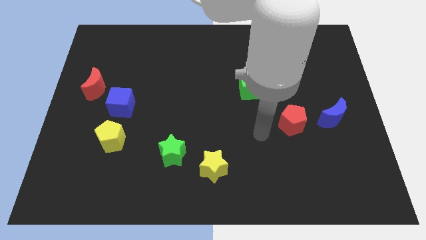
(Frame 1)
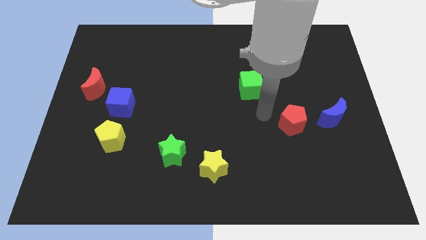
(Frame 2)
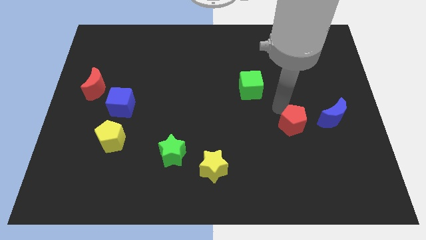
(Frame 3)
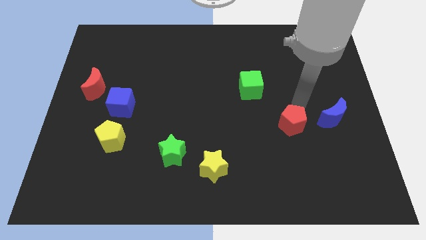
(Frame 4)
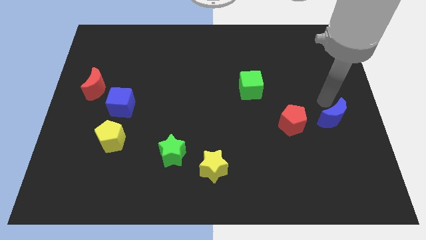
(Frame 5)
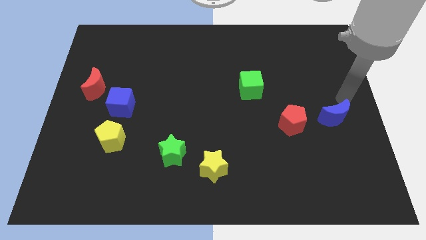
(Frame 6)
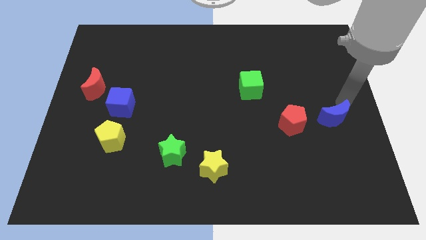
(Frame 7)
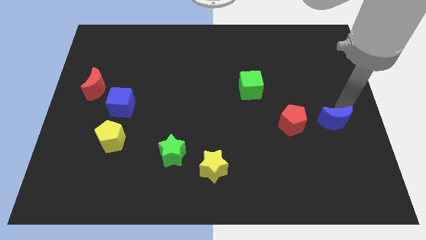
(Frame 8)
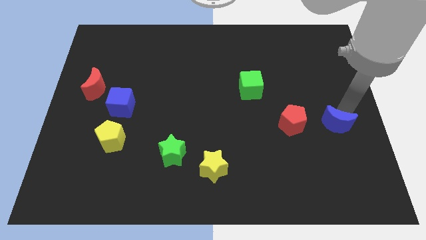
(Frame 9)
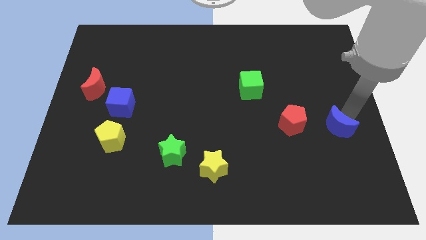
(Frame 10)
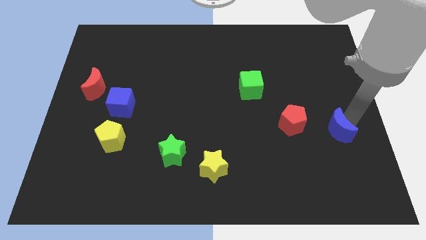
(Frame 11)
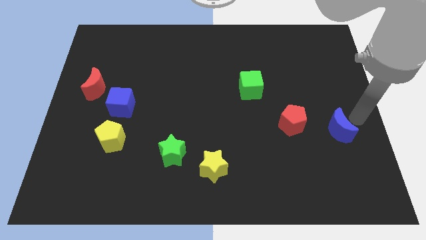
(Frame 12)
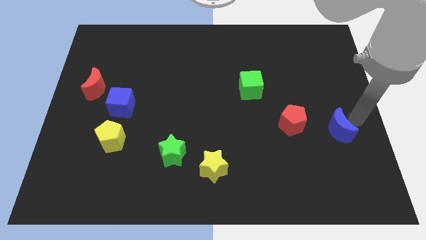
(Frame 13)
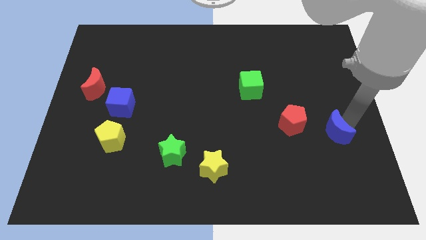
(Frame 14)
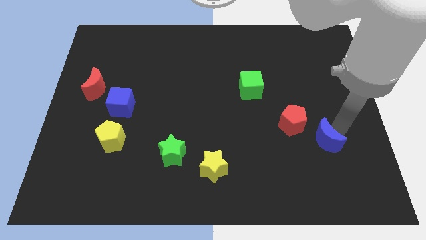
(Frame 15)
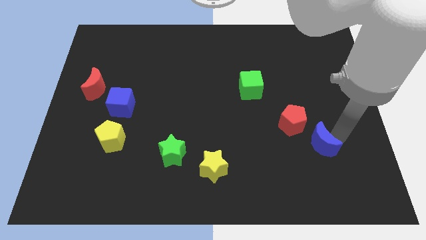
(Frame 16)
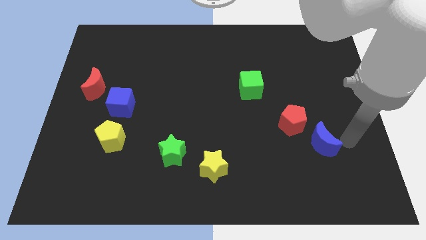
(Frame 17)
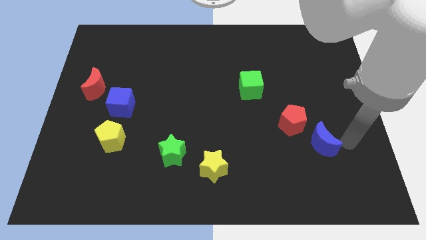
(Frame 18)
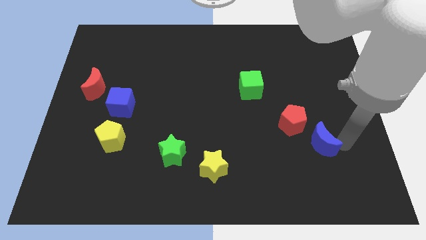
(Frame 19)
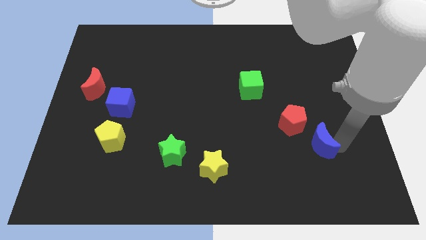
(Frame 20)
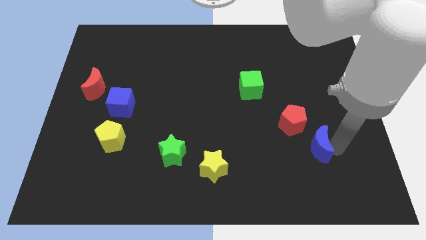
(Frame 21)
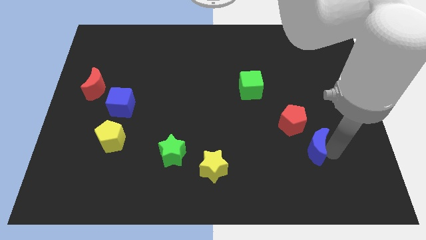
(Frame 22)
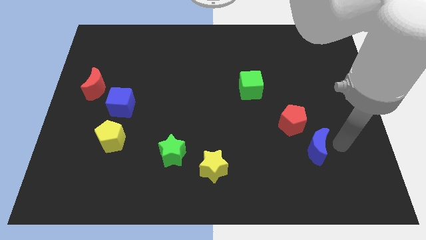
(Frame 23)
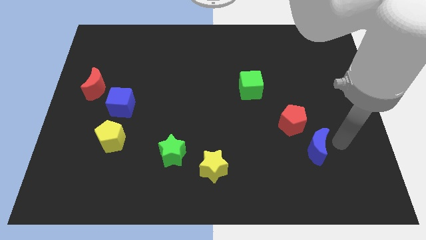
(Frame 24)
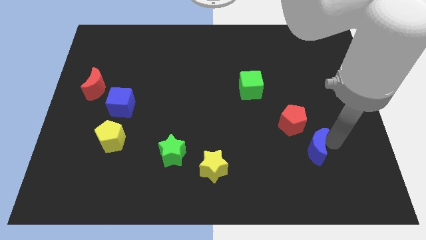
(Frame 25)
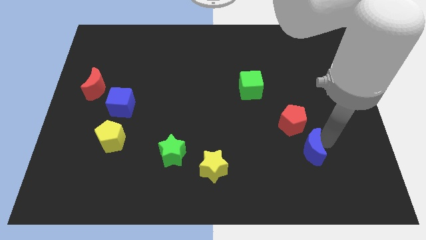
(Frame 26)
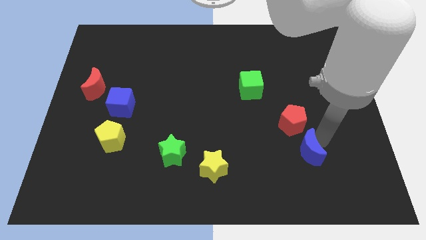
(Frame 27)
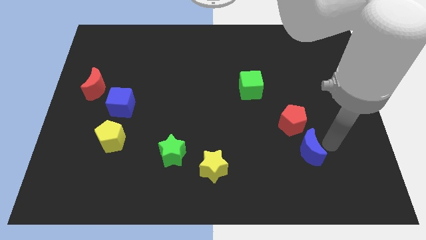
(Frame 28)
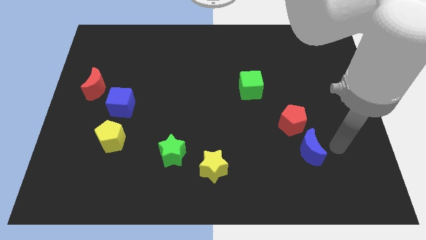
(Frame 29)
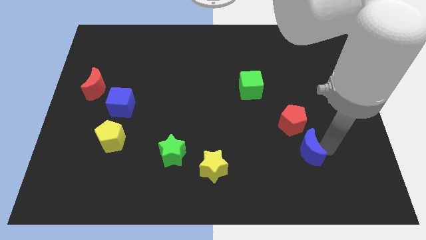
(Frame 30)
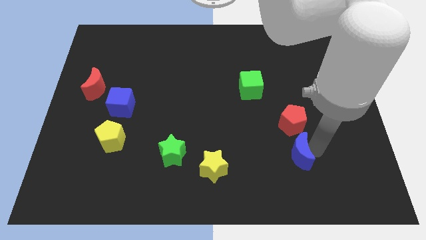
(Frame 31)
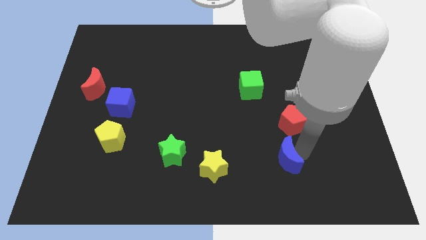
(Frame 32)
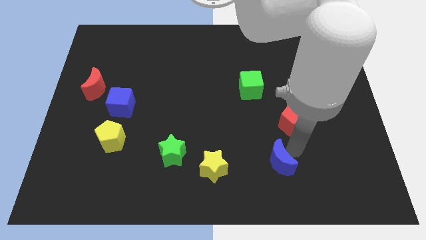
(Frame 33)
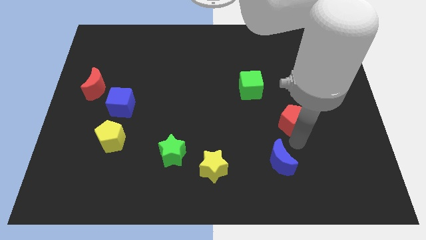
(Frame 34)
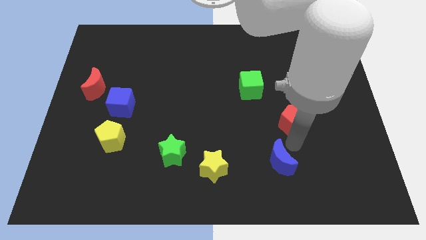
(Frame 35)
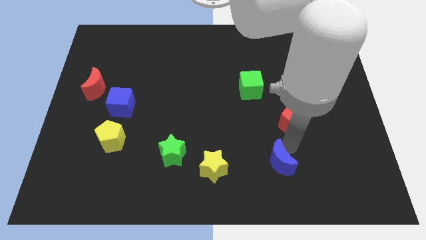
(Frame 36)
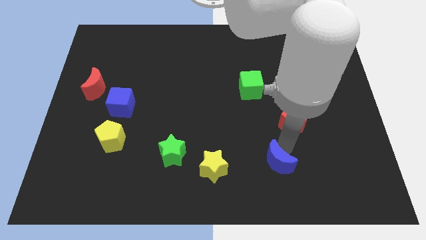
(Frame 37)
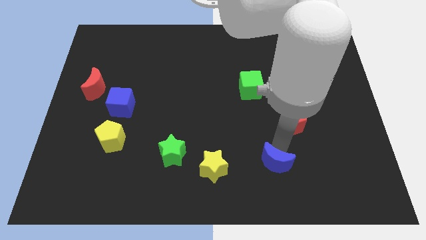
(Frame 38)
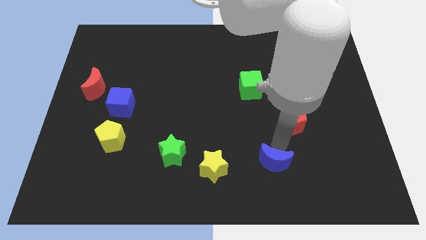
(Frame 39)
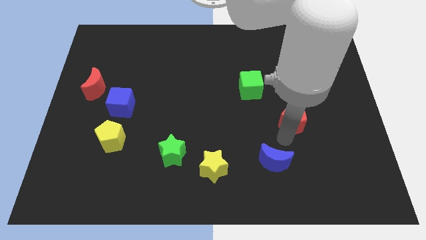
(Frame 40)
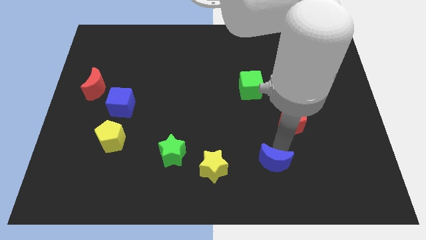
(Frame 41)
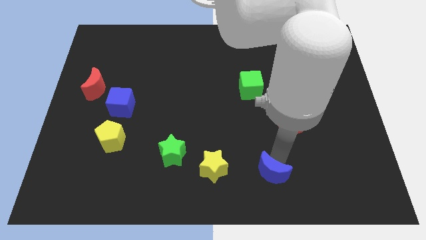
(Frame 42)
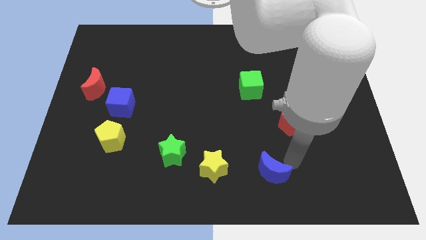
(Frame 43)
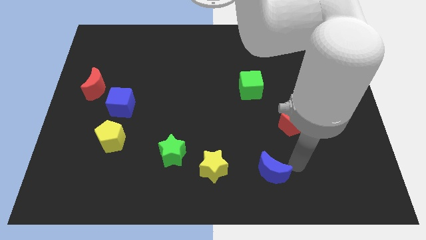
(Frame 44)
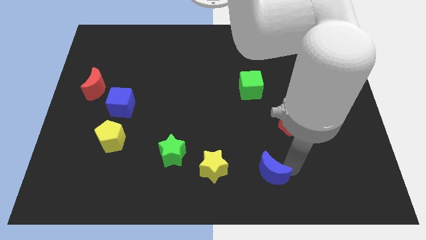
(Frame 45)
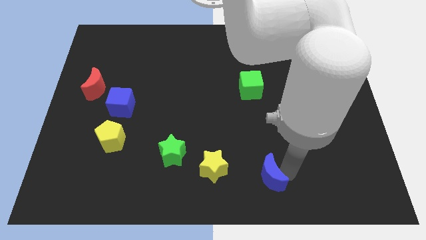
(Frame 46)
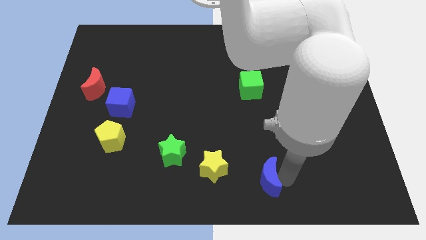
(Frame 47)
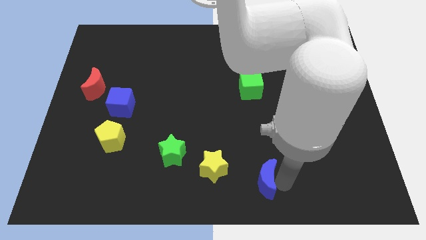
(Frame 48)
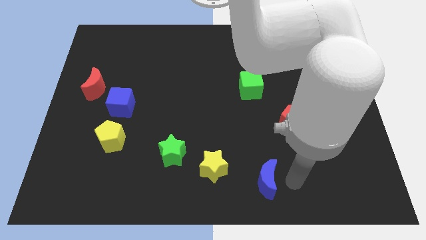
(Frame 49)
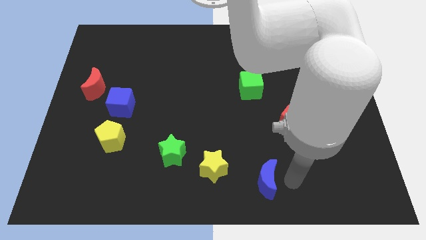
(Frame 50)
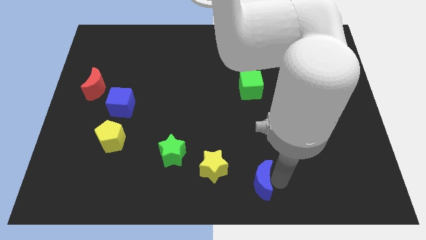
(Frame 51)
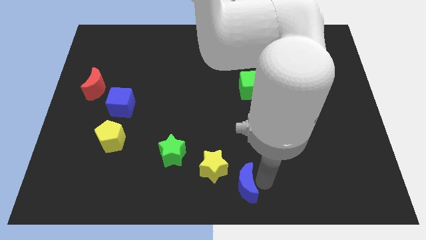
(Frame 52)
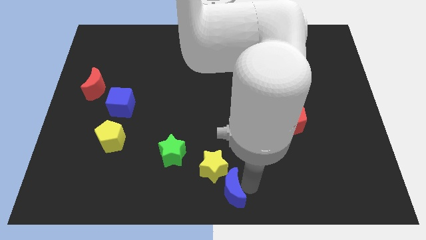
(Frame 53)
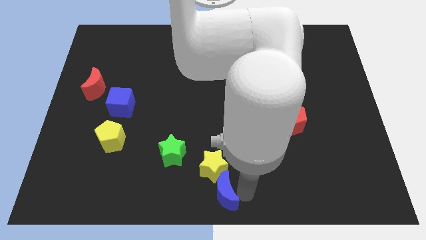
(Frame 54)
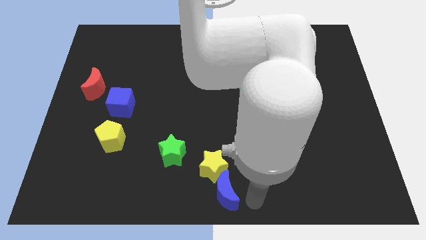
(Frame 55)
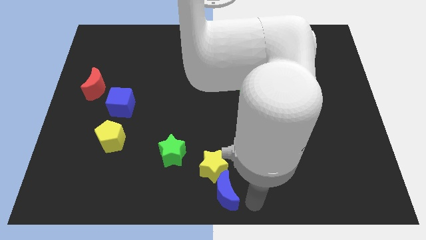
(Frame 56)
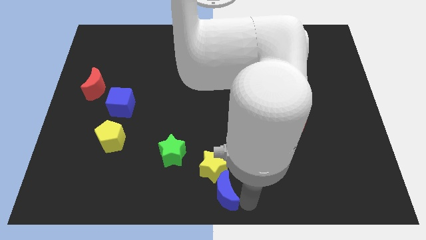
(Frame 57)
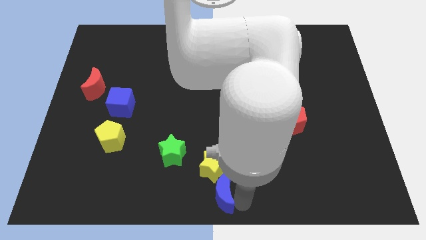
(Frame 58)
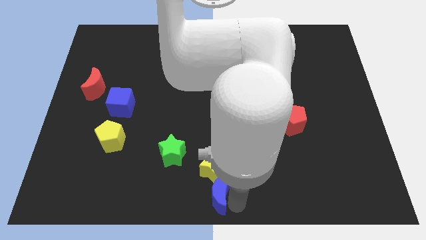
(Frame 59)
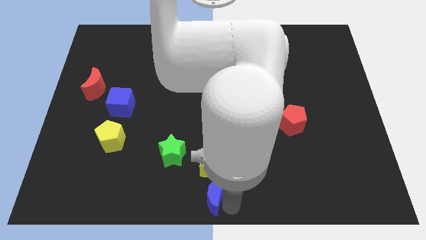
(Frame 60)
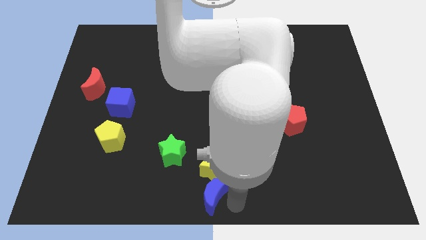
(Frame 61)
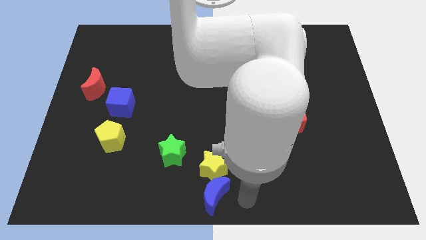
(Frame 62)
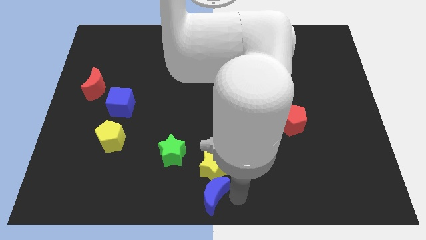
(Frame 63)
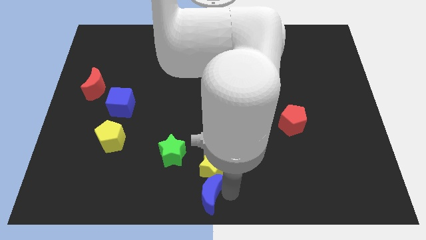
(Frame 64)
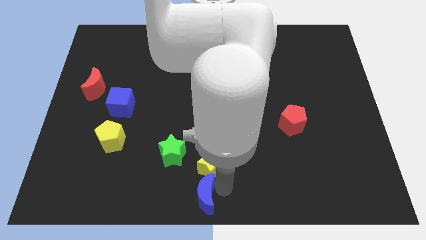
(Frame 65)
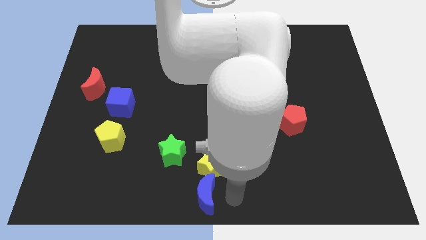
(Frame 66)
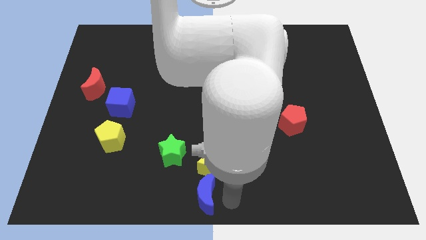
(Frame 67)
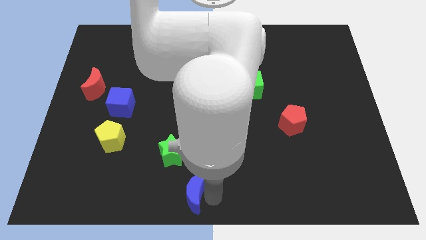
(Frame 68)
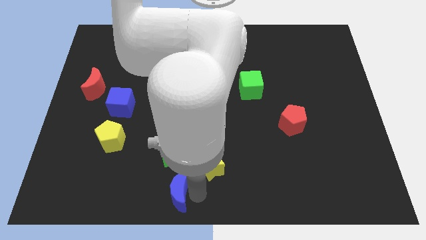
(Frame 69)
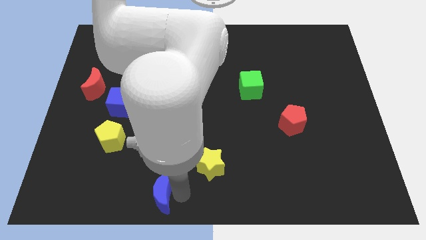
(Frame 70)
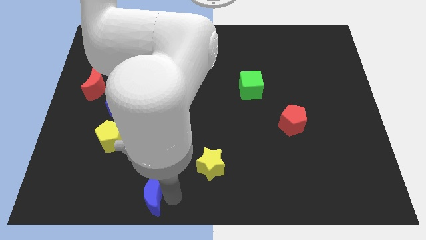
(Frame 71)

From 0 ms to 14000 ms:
put the blue moon to the bottom left side of the green star
